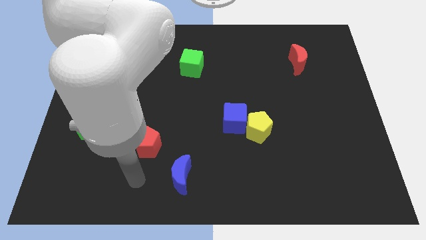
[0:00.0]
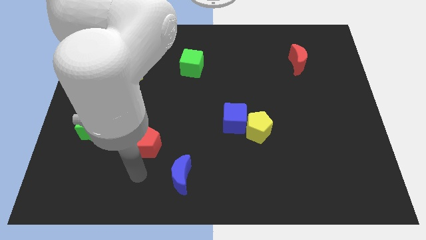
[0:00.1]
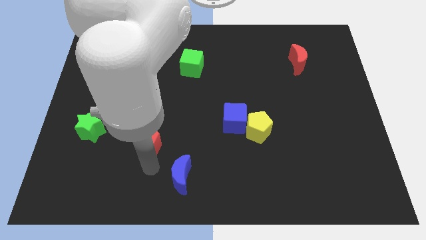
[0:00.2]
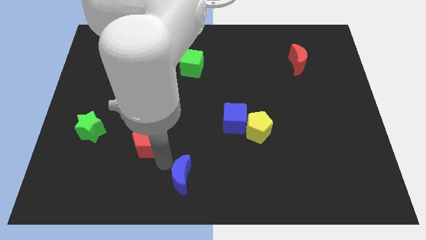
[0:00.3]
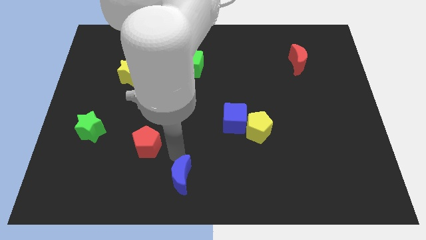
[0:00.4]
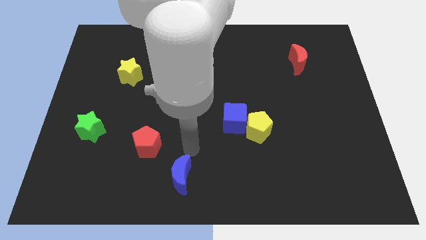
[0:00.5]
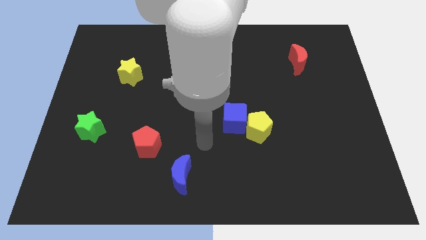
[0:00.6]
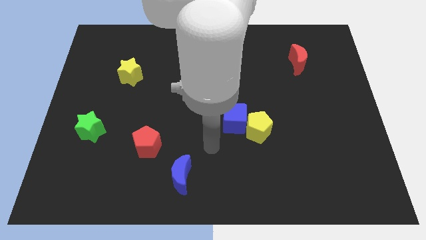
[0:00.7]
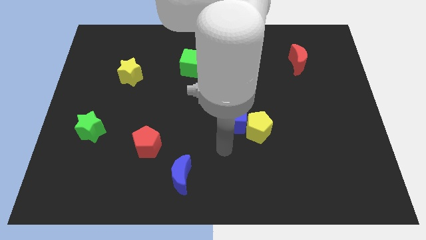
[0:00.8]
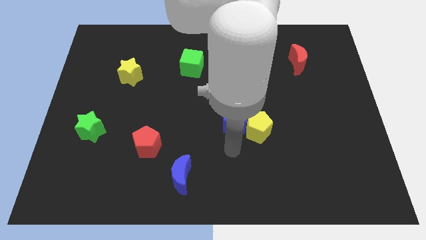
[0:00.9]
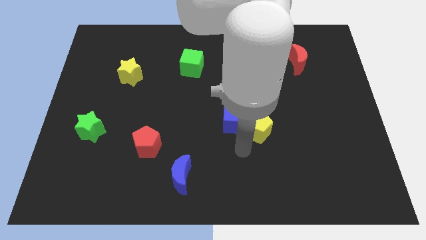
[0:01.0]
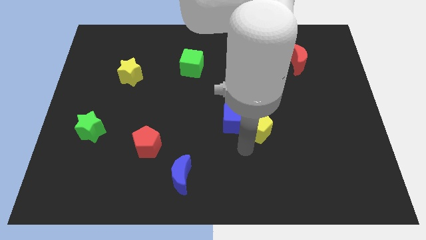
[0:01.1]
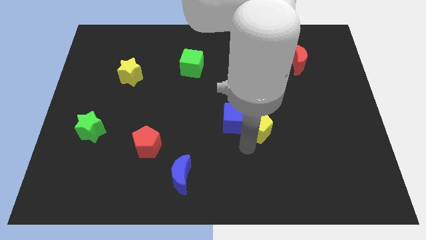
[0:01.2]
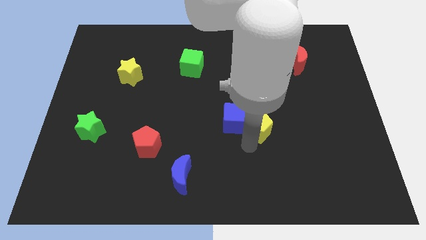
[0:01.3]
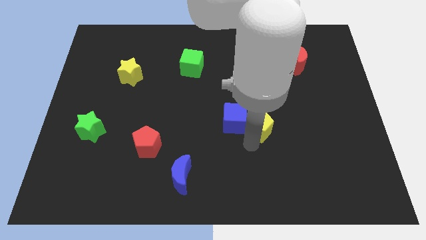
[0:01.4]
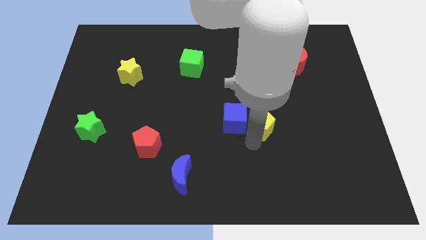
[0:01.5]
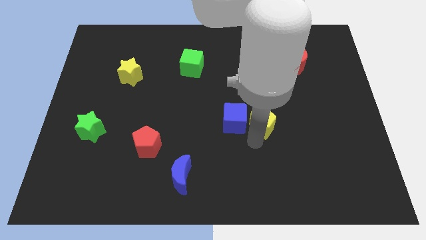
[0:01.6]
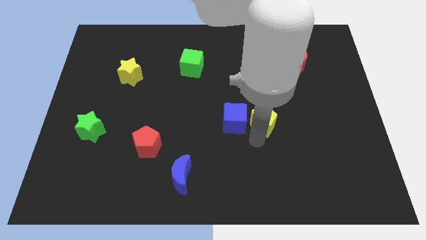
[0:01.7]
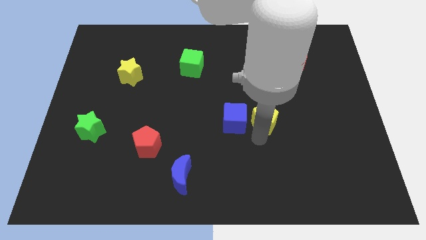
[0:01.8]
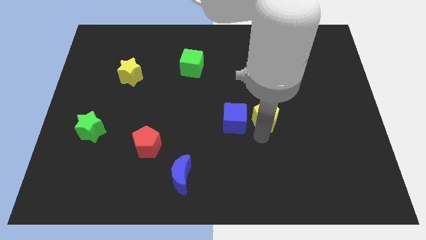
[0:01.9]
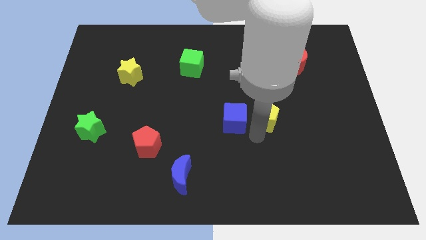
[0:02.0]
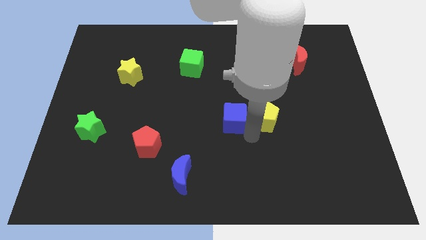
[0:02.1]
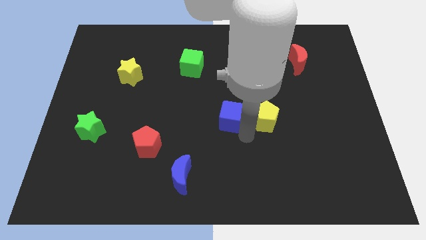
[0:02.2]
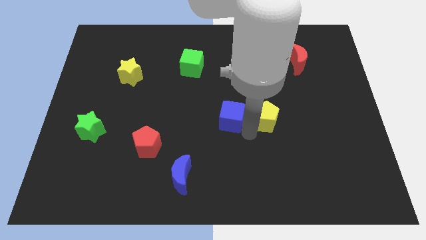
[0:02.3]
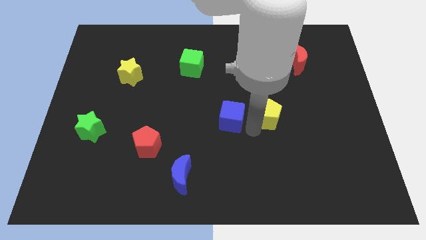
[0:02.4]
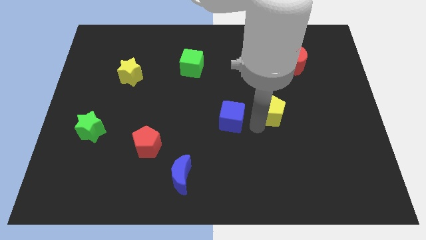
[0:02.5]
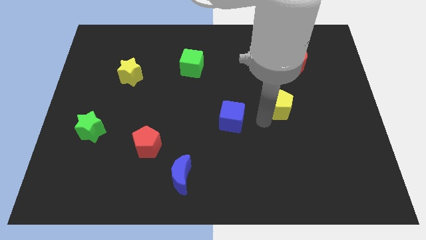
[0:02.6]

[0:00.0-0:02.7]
move the yellow pentagon upwards and to the right diagonally somewhat

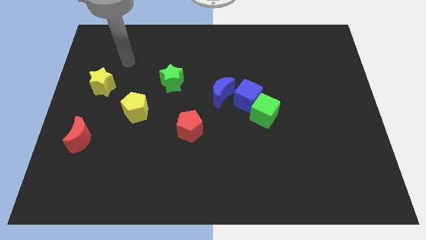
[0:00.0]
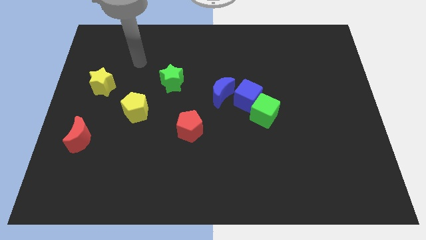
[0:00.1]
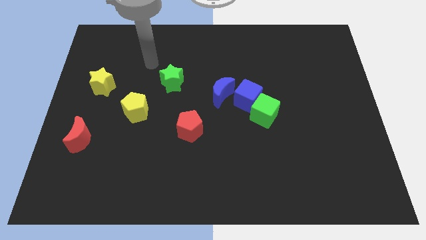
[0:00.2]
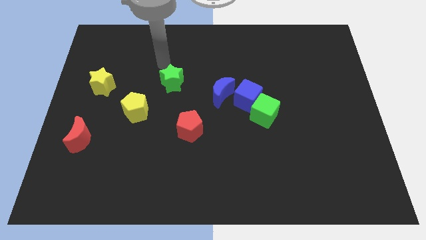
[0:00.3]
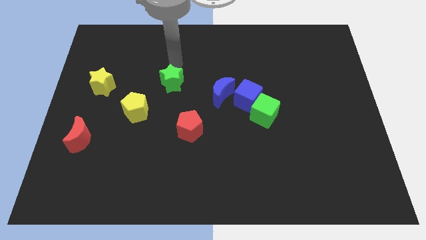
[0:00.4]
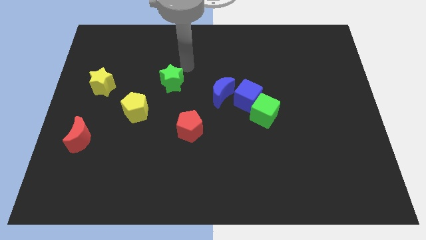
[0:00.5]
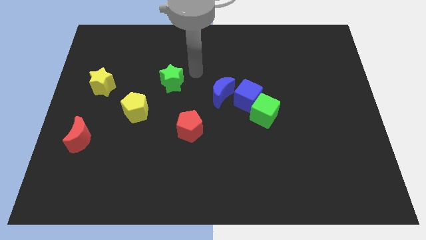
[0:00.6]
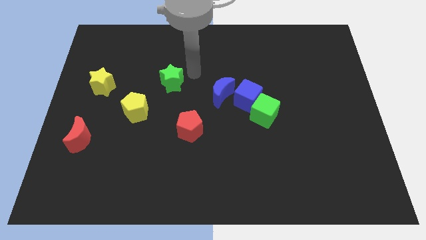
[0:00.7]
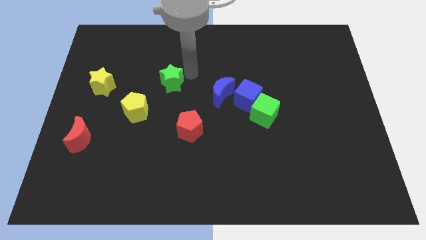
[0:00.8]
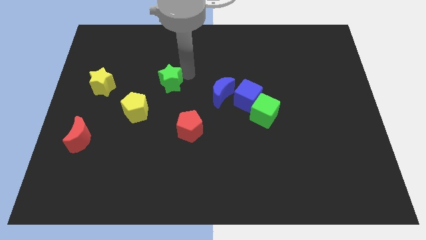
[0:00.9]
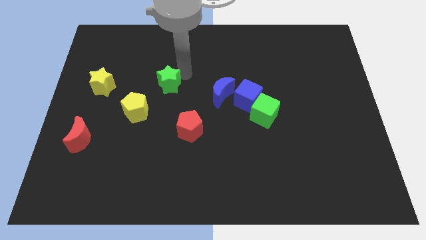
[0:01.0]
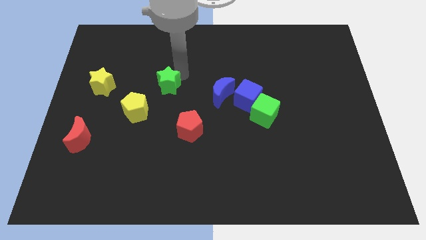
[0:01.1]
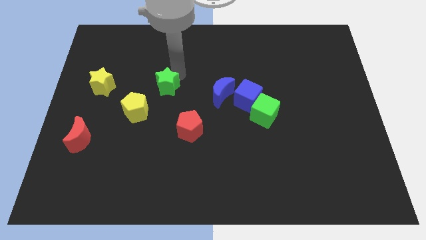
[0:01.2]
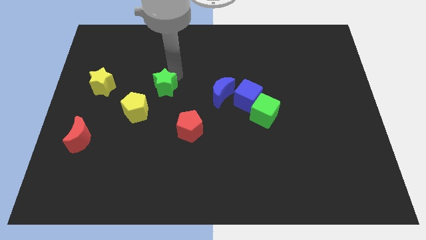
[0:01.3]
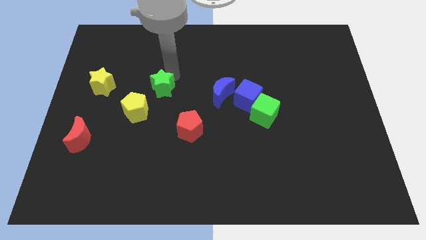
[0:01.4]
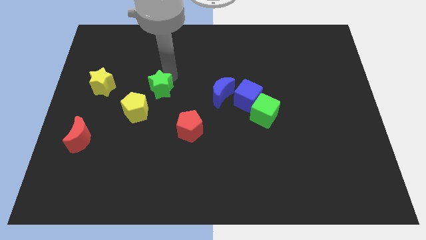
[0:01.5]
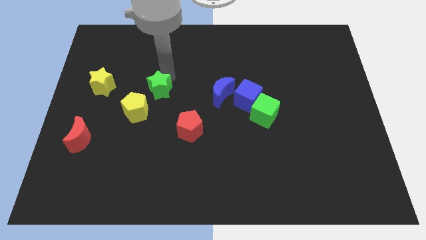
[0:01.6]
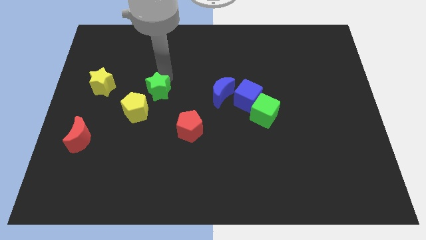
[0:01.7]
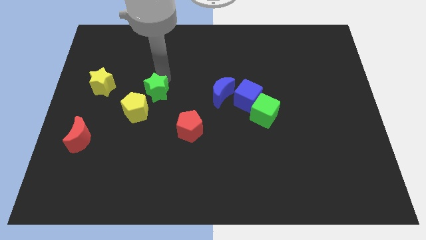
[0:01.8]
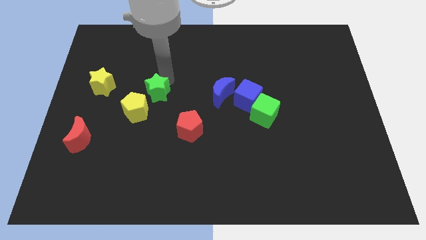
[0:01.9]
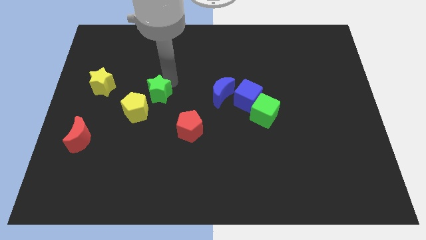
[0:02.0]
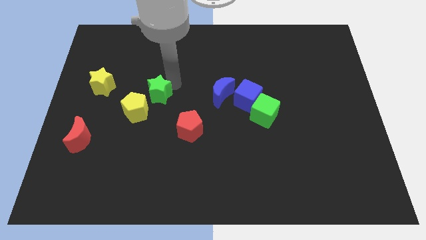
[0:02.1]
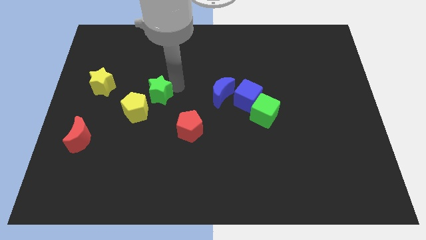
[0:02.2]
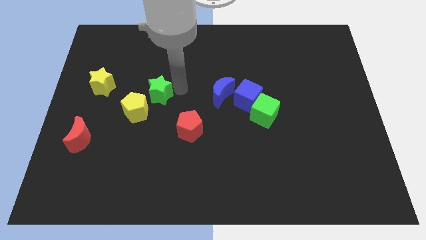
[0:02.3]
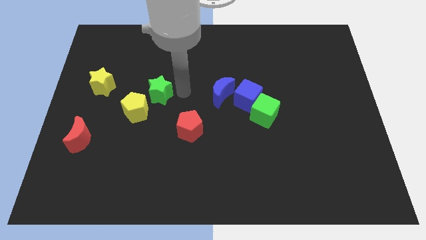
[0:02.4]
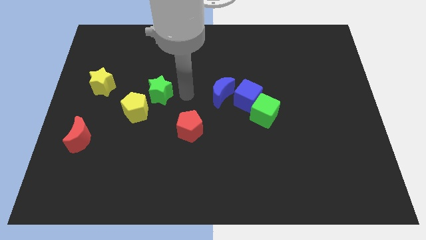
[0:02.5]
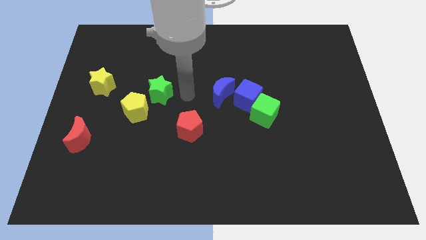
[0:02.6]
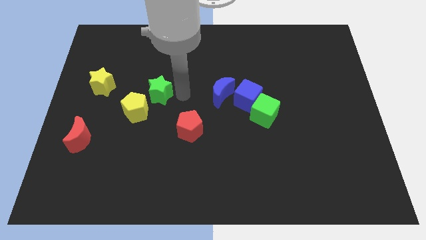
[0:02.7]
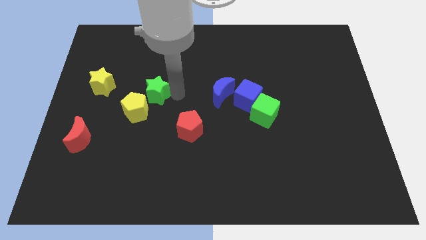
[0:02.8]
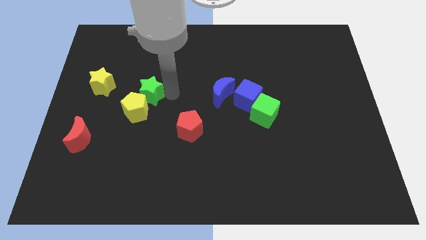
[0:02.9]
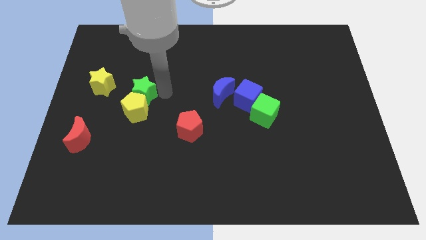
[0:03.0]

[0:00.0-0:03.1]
move the green star a little downwards and then to the left

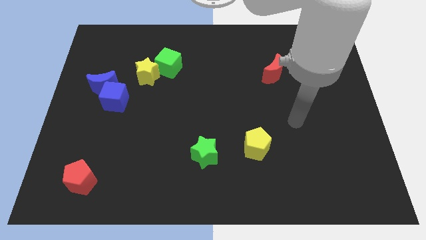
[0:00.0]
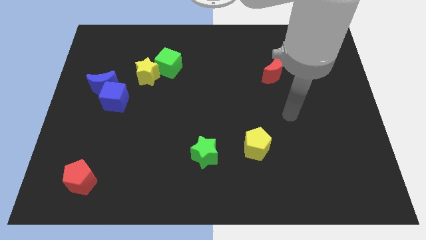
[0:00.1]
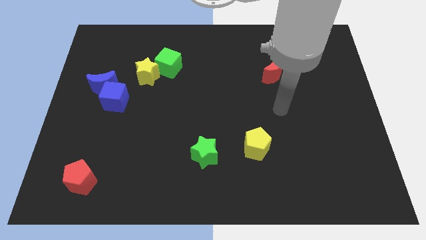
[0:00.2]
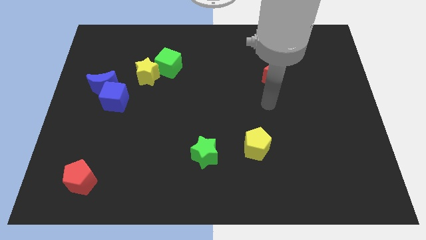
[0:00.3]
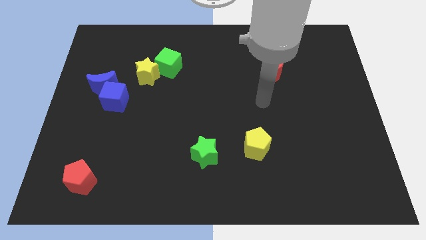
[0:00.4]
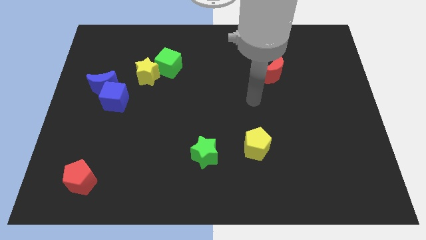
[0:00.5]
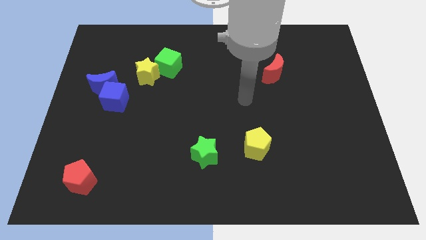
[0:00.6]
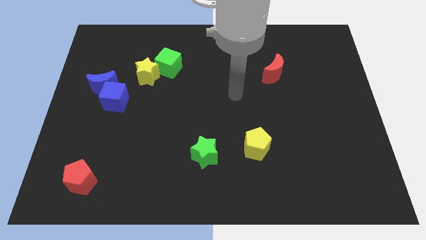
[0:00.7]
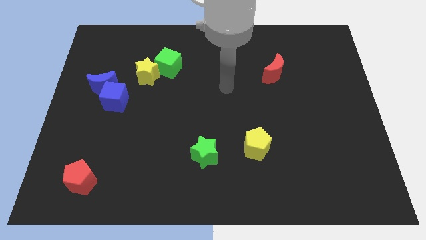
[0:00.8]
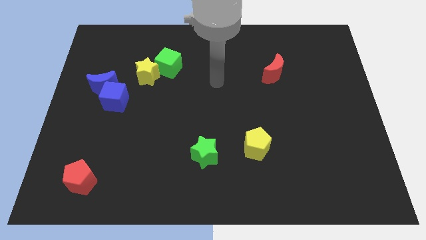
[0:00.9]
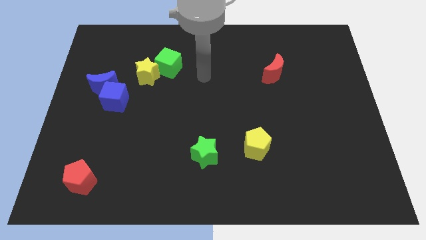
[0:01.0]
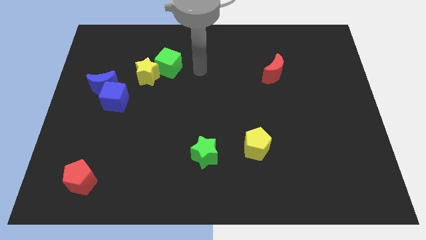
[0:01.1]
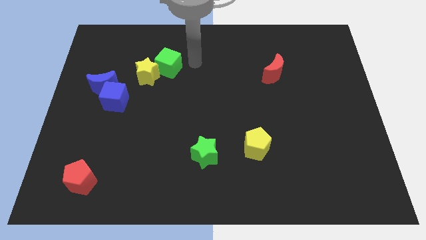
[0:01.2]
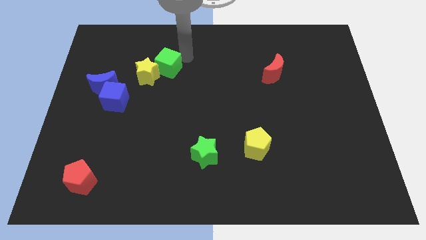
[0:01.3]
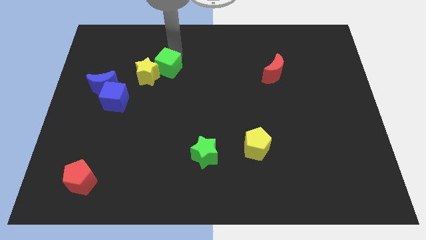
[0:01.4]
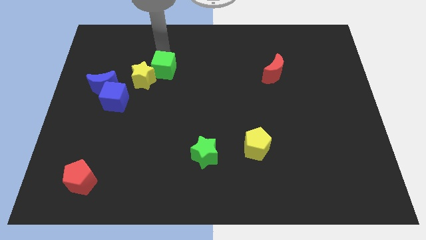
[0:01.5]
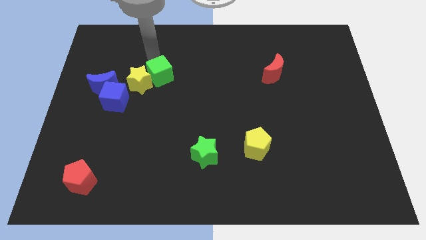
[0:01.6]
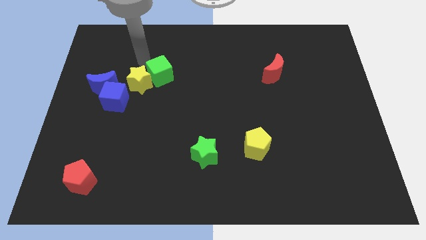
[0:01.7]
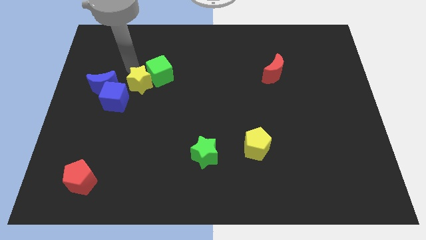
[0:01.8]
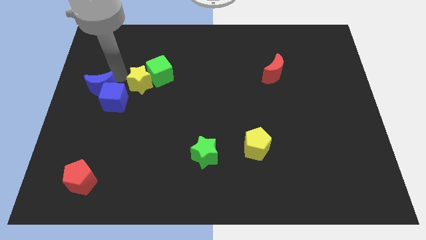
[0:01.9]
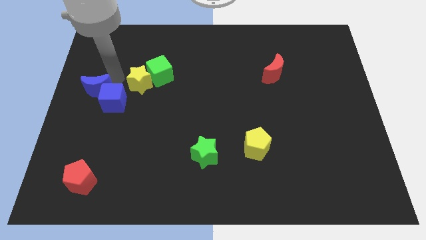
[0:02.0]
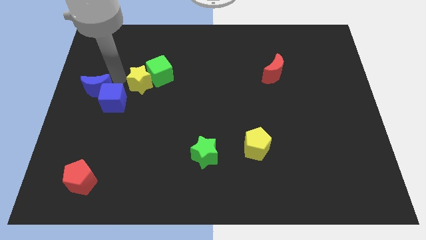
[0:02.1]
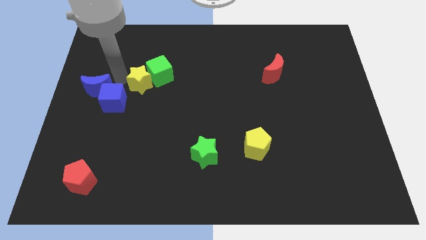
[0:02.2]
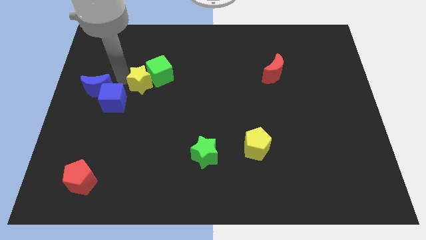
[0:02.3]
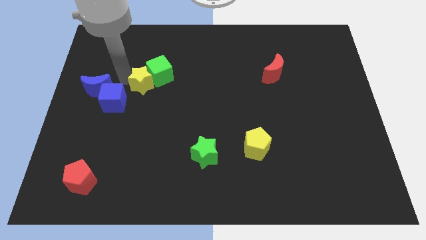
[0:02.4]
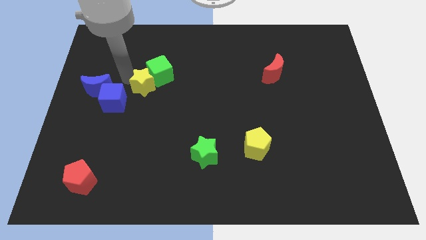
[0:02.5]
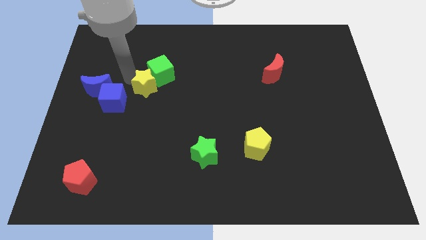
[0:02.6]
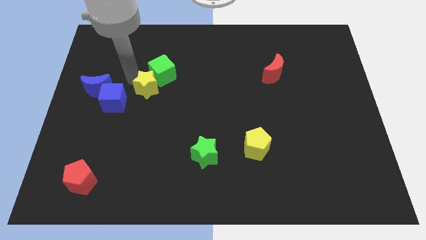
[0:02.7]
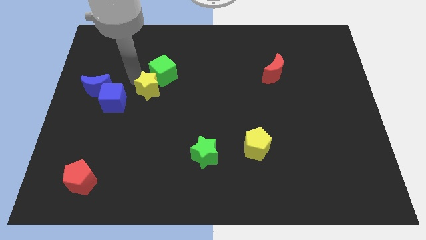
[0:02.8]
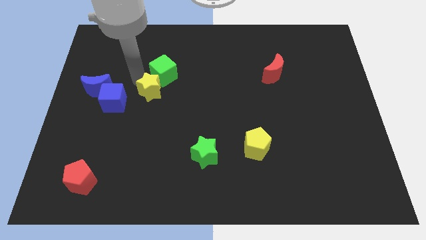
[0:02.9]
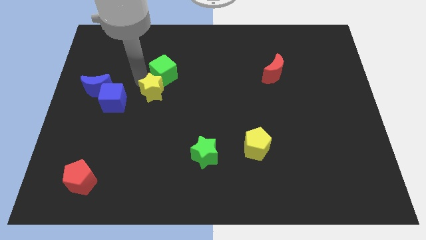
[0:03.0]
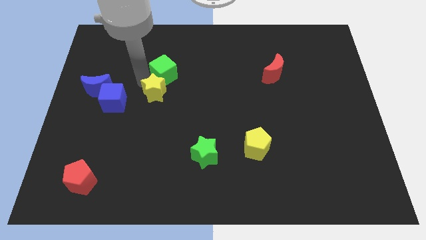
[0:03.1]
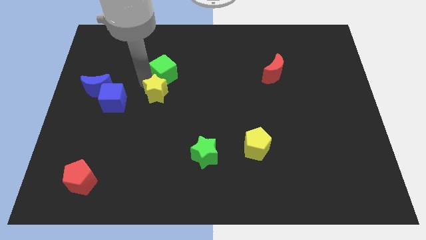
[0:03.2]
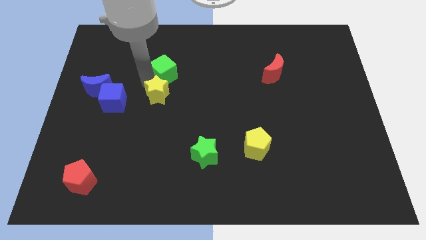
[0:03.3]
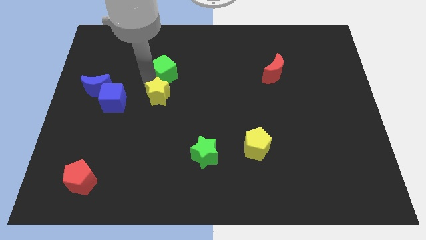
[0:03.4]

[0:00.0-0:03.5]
slightly push the yellow star diagonally down and to the right
